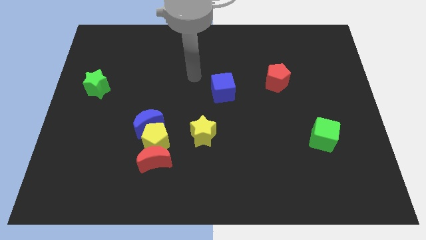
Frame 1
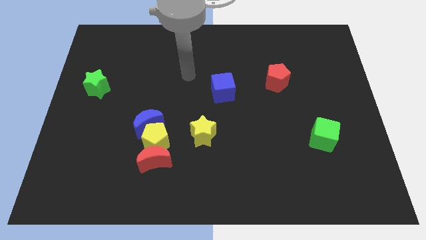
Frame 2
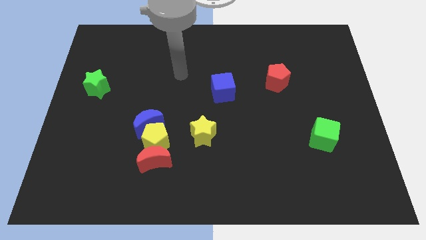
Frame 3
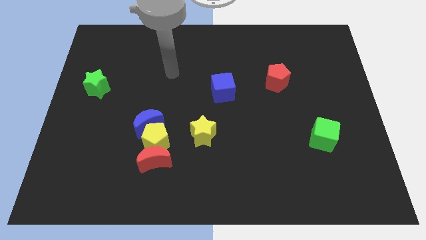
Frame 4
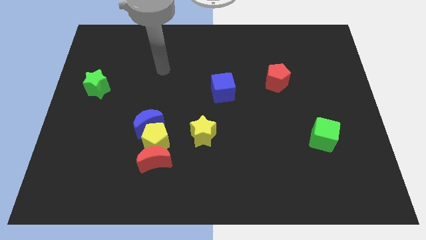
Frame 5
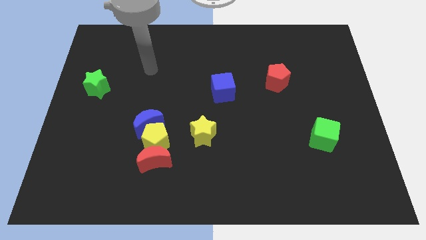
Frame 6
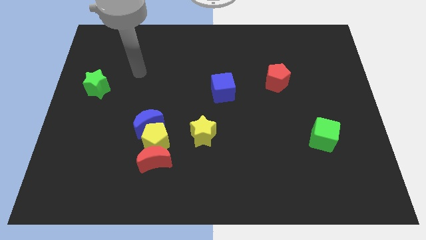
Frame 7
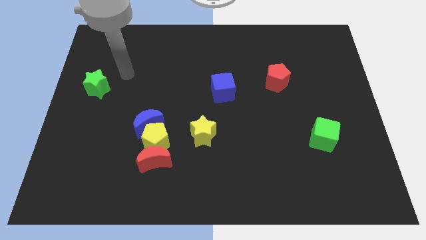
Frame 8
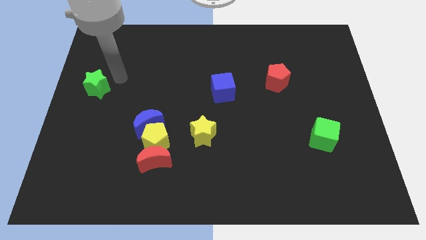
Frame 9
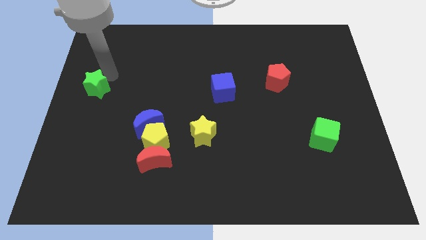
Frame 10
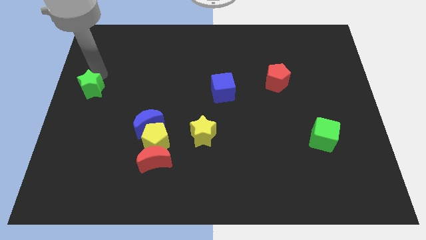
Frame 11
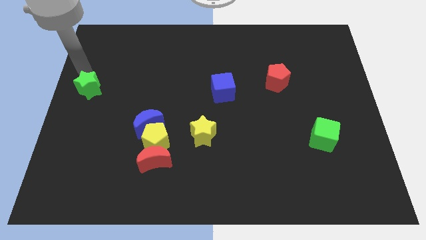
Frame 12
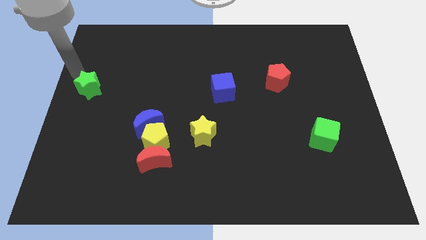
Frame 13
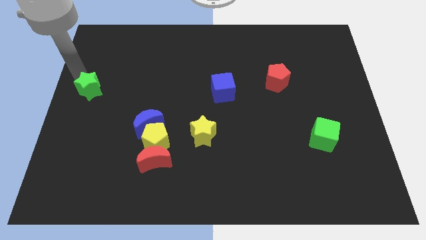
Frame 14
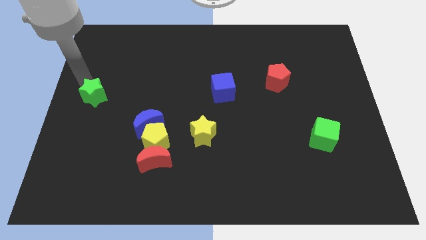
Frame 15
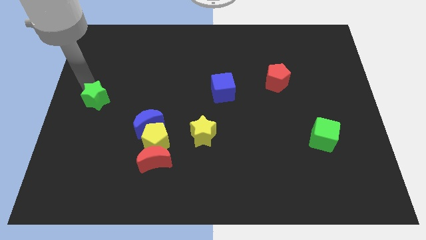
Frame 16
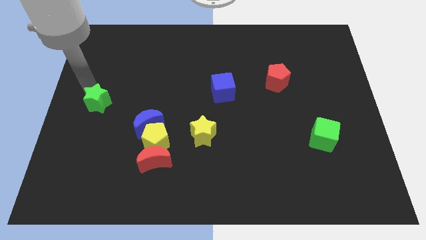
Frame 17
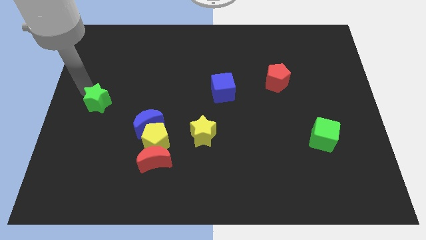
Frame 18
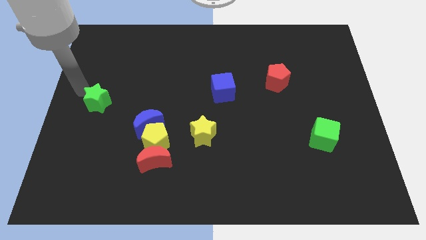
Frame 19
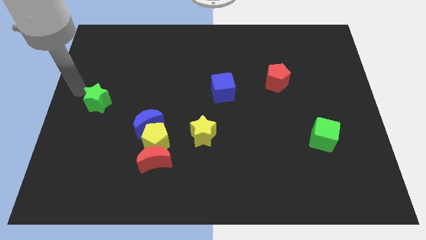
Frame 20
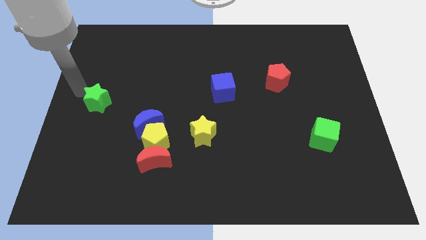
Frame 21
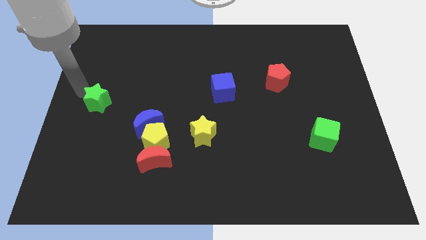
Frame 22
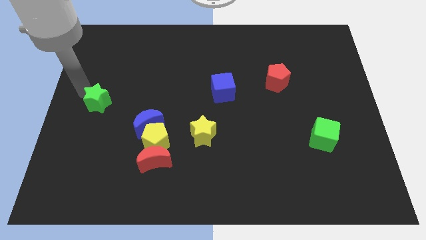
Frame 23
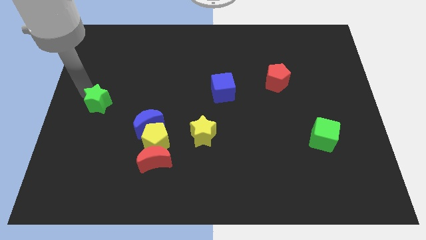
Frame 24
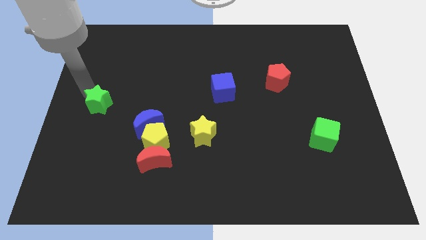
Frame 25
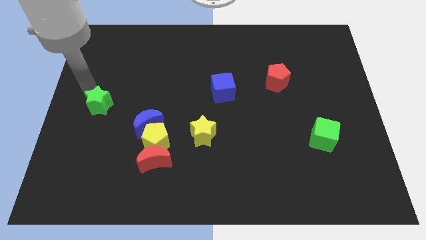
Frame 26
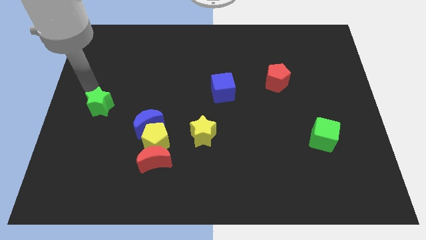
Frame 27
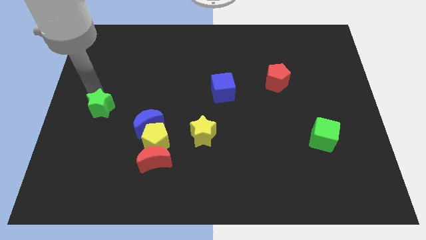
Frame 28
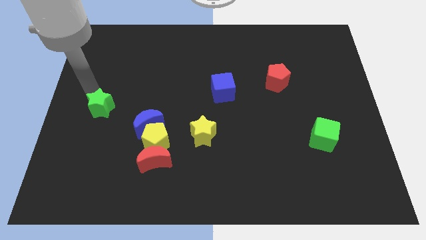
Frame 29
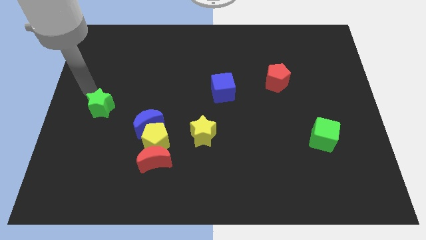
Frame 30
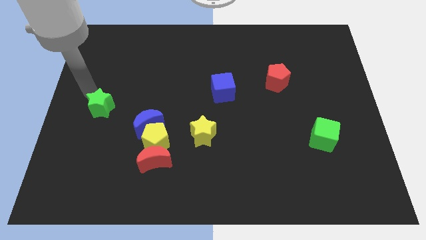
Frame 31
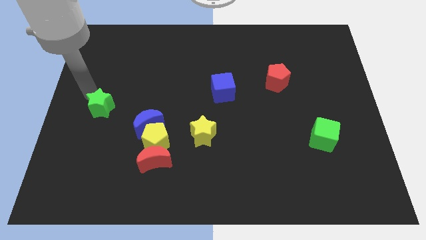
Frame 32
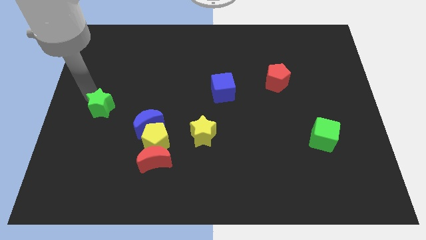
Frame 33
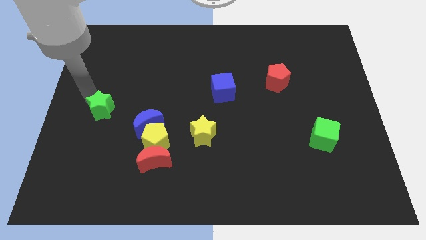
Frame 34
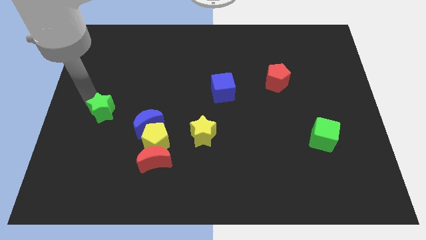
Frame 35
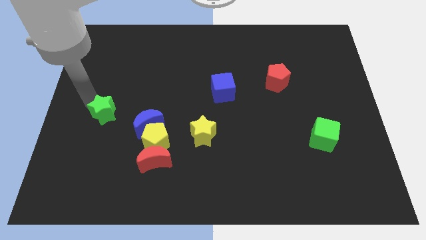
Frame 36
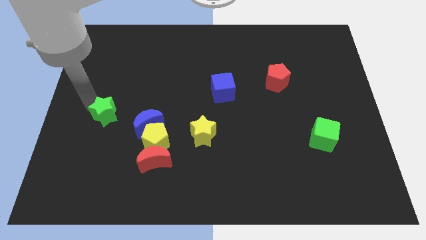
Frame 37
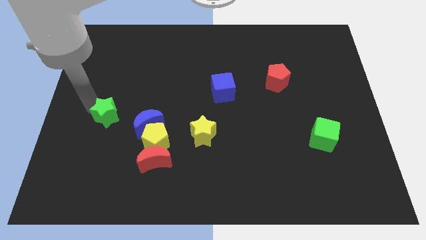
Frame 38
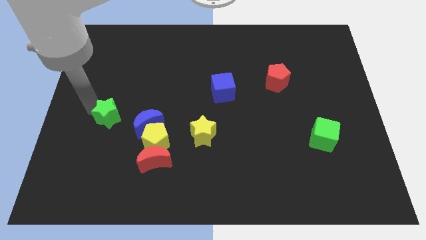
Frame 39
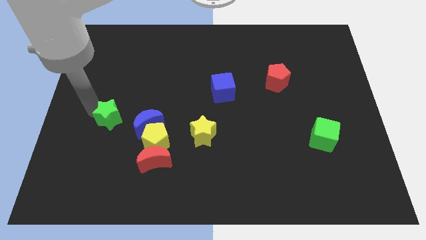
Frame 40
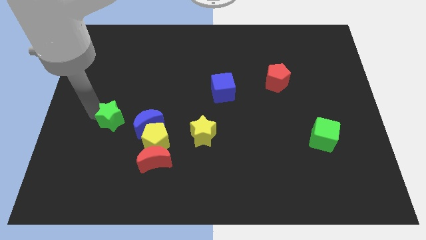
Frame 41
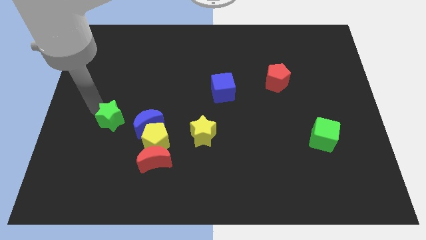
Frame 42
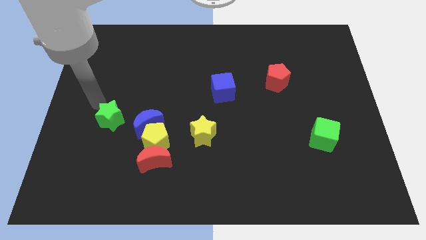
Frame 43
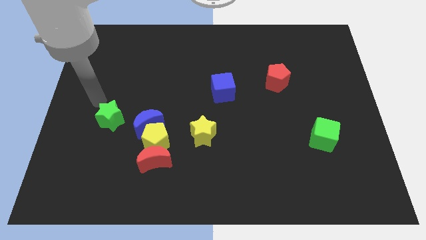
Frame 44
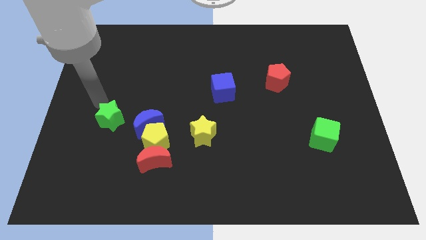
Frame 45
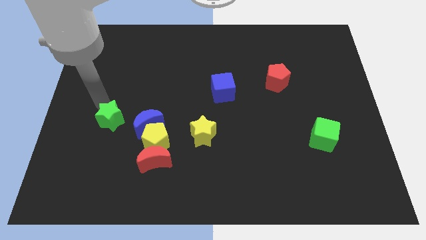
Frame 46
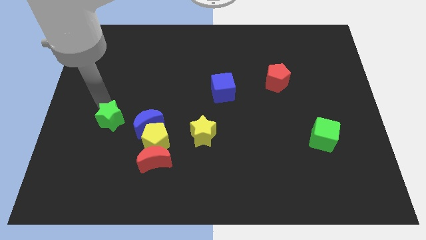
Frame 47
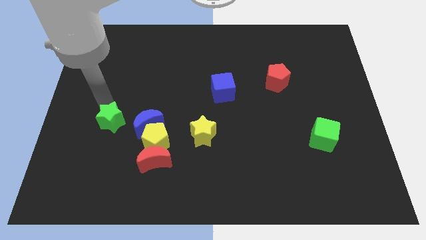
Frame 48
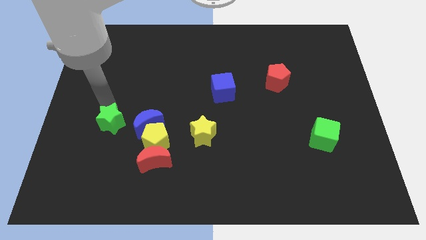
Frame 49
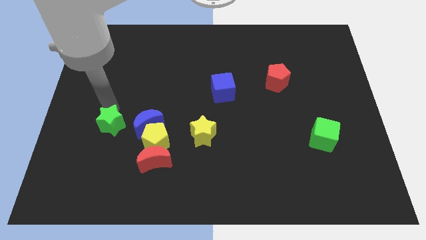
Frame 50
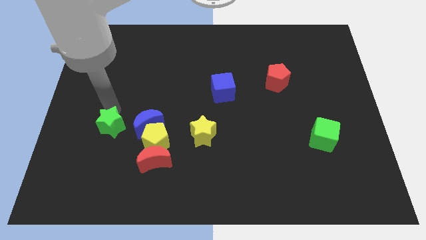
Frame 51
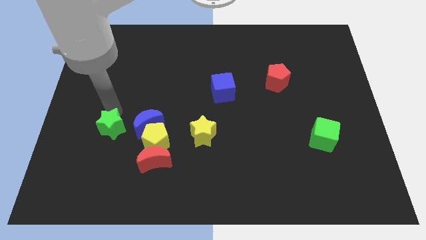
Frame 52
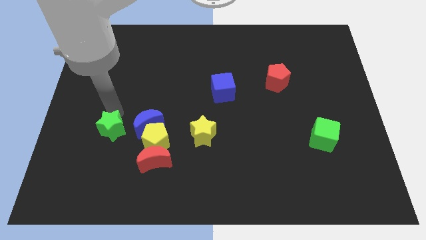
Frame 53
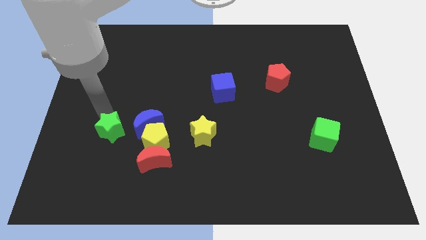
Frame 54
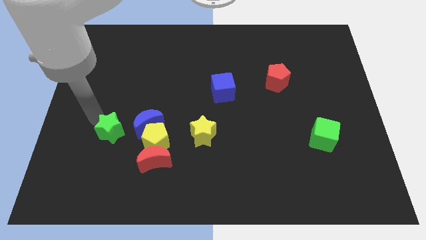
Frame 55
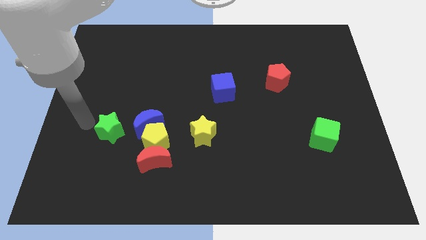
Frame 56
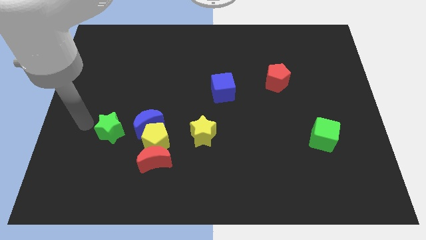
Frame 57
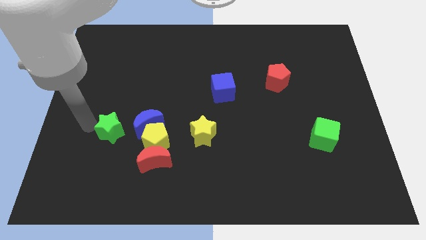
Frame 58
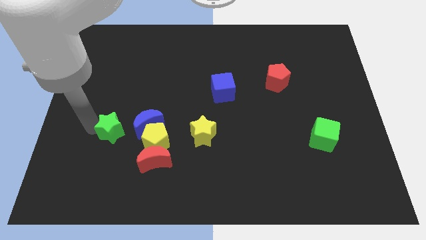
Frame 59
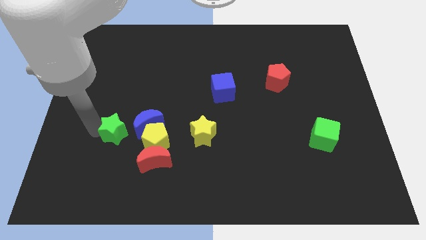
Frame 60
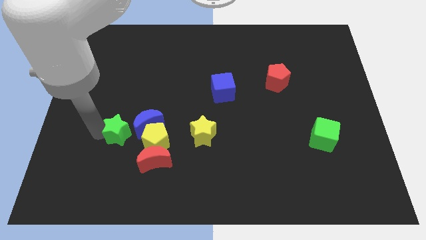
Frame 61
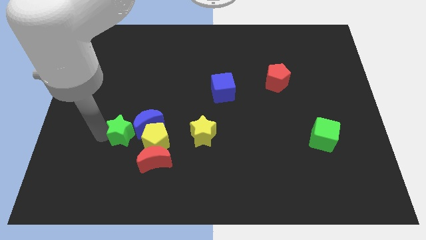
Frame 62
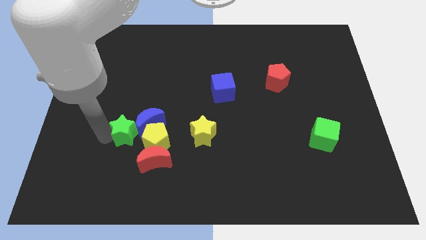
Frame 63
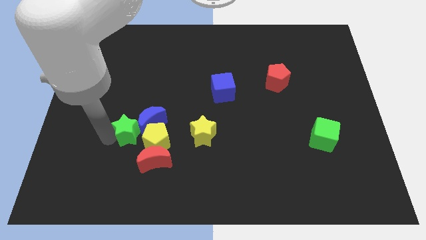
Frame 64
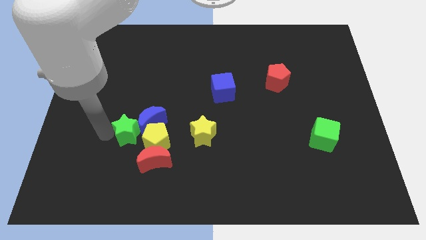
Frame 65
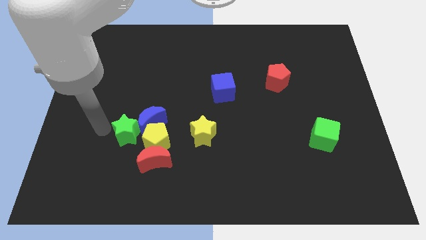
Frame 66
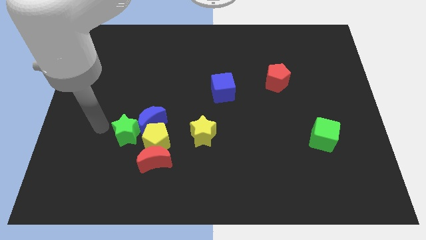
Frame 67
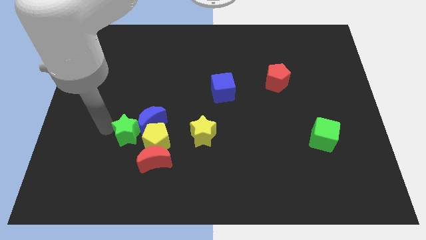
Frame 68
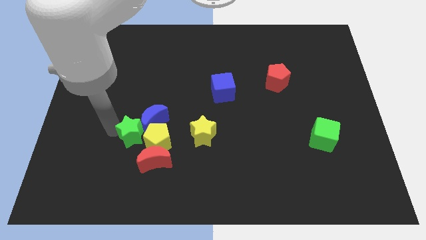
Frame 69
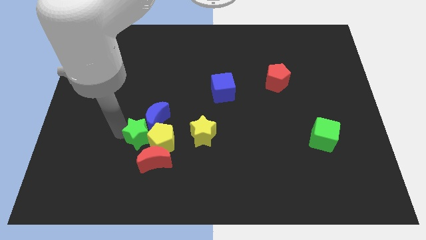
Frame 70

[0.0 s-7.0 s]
push the green star to the yellow pentagon

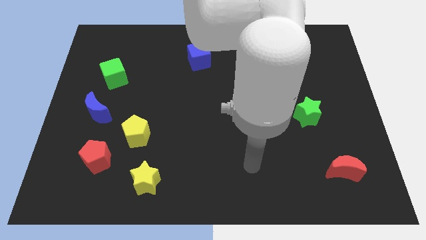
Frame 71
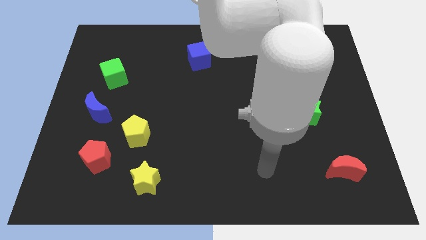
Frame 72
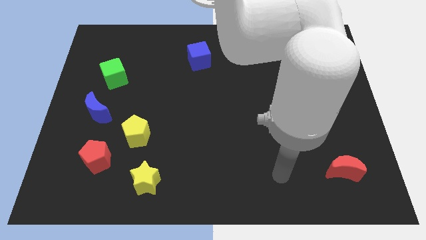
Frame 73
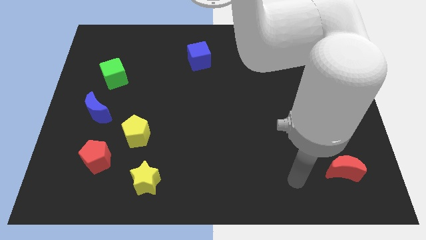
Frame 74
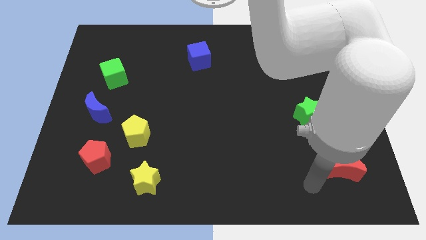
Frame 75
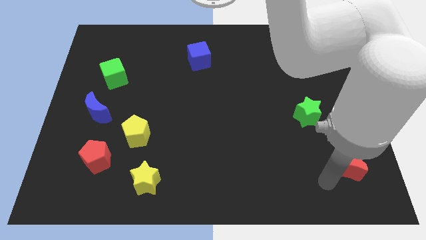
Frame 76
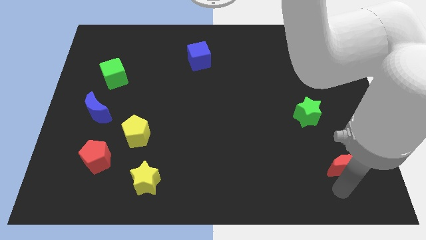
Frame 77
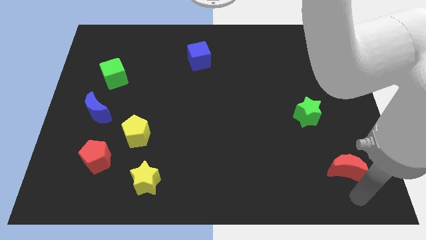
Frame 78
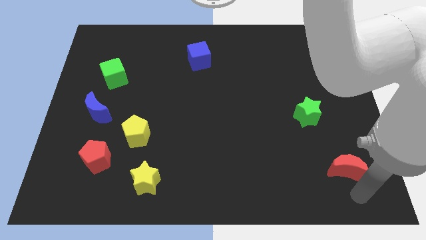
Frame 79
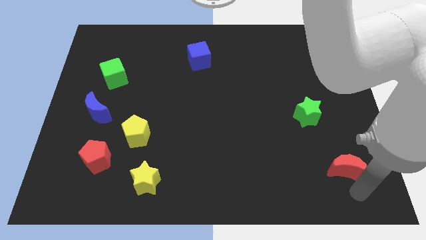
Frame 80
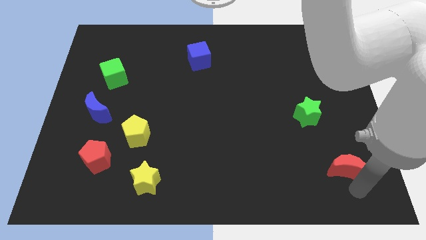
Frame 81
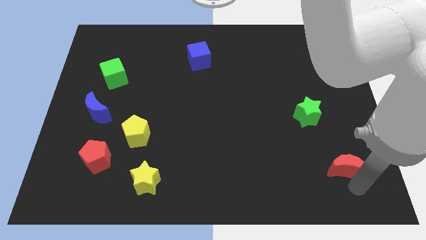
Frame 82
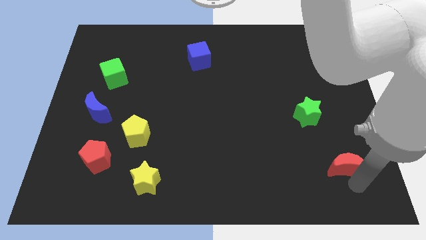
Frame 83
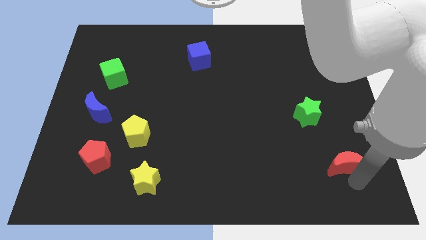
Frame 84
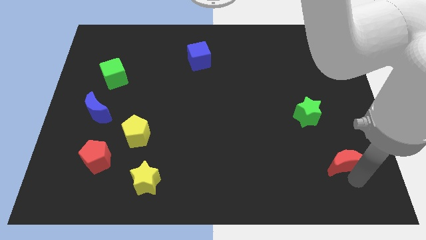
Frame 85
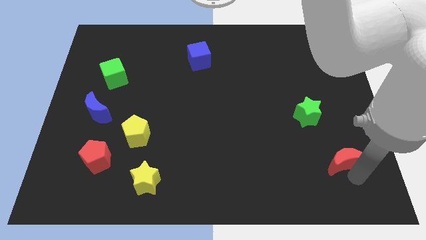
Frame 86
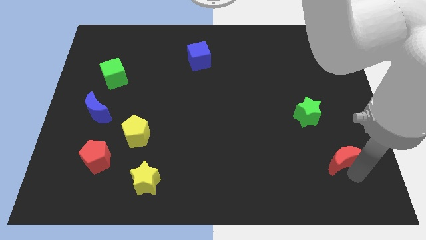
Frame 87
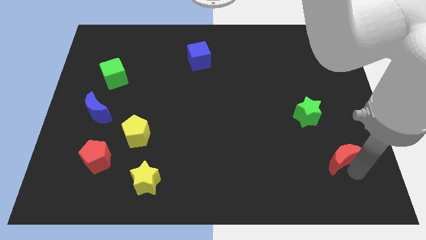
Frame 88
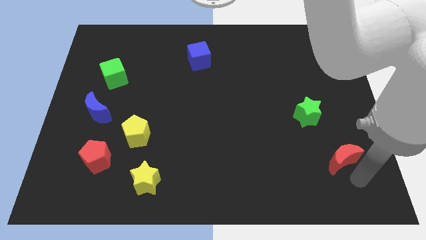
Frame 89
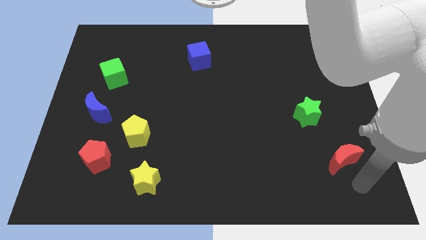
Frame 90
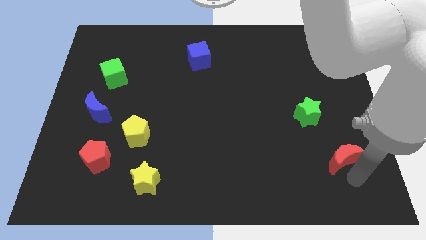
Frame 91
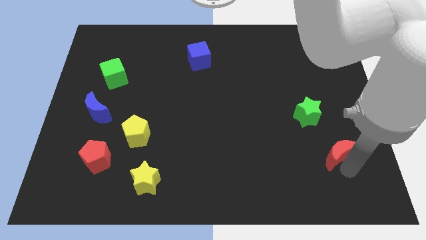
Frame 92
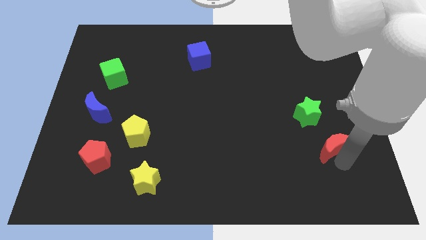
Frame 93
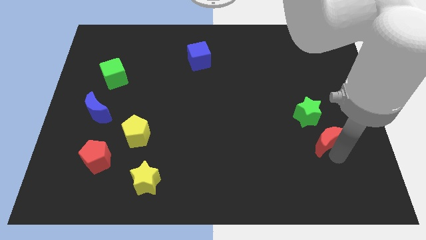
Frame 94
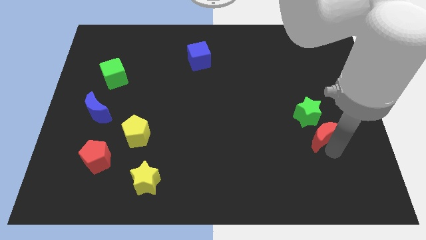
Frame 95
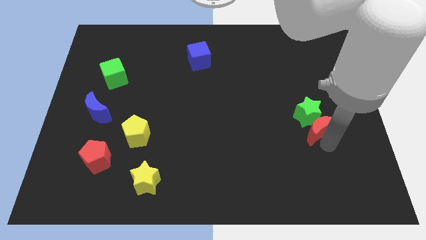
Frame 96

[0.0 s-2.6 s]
push the red moon close to the green star
